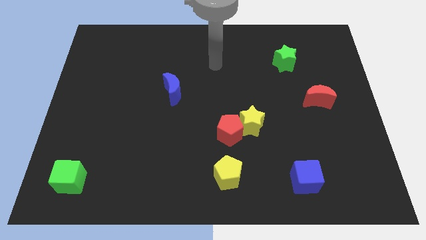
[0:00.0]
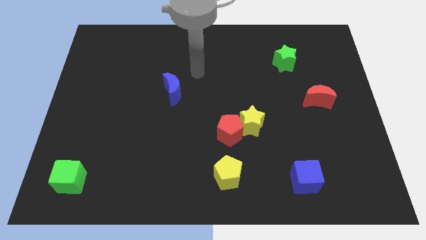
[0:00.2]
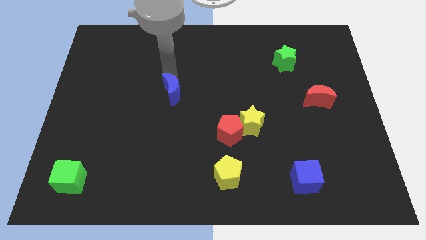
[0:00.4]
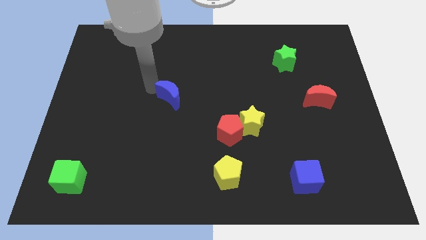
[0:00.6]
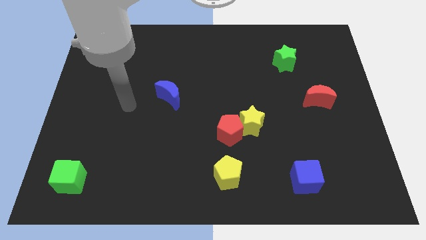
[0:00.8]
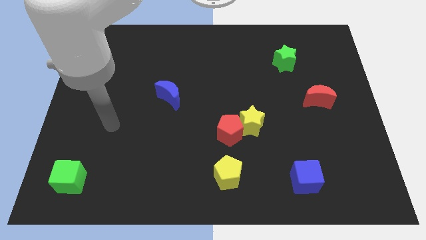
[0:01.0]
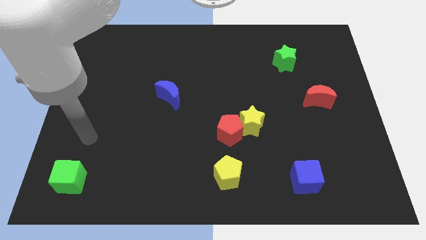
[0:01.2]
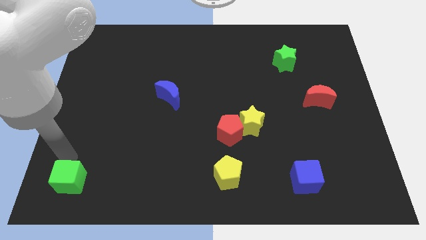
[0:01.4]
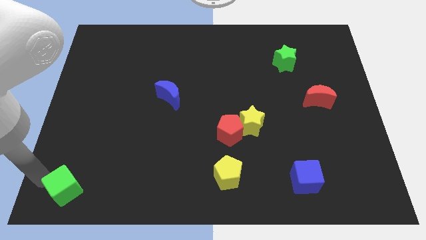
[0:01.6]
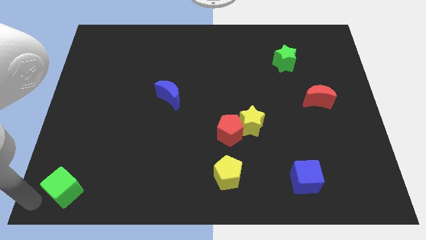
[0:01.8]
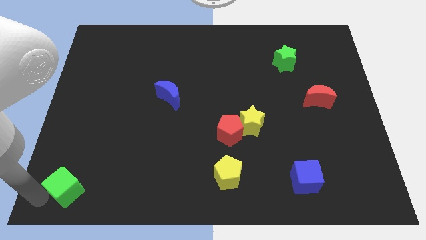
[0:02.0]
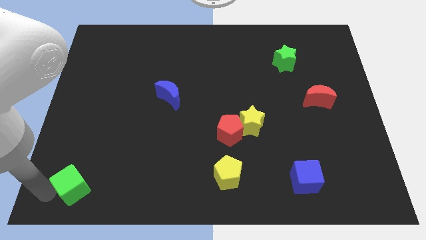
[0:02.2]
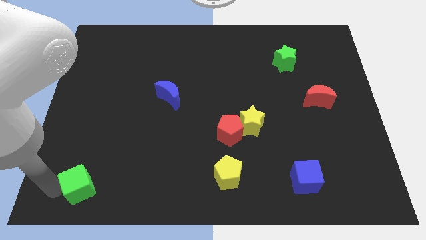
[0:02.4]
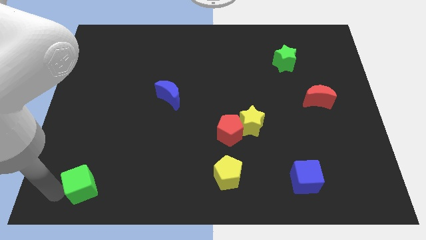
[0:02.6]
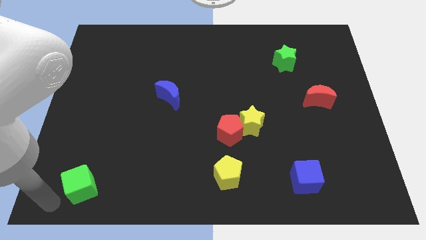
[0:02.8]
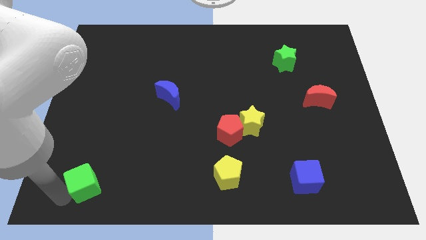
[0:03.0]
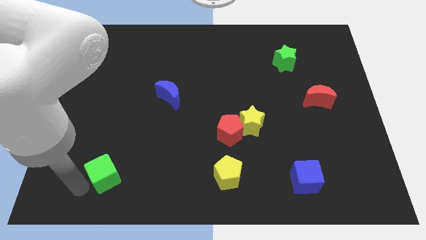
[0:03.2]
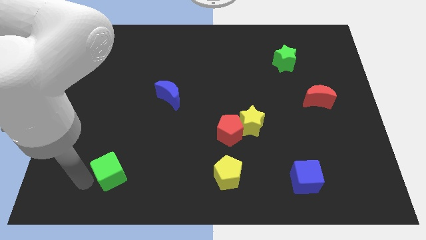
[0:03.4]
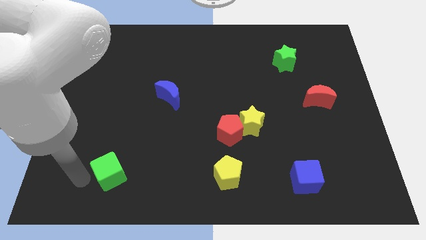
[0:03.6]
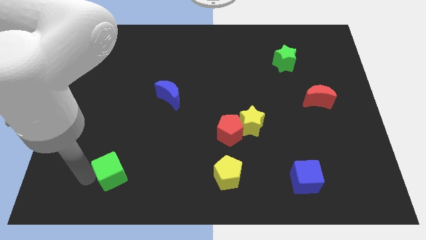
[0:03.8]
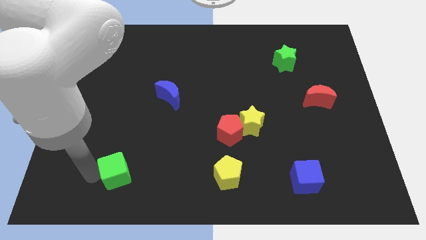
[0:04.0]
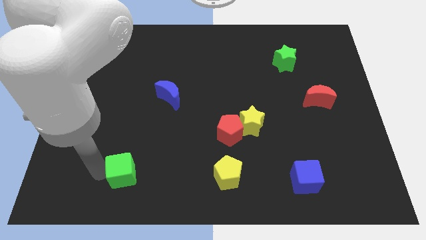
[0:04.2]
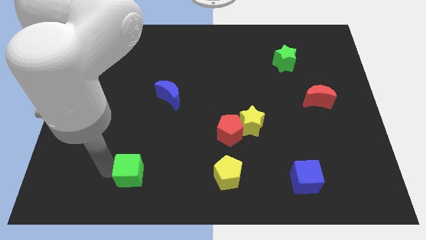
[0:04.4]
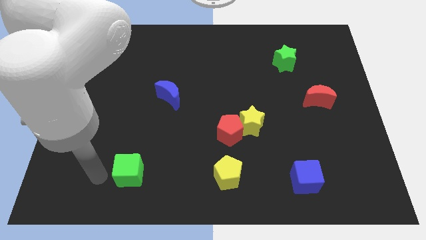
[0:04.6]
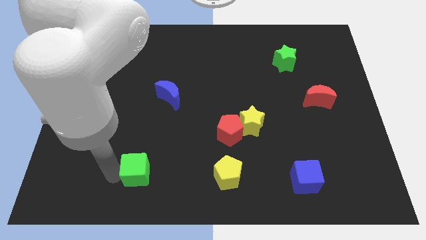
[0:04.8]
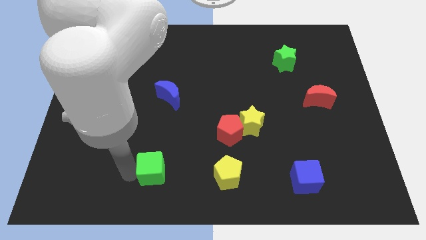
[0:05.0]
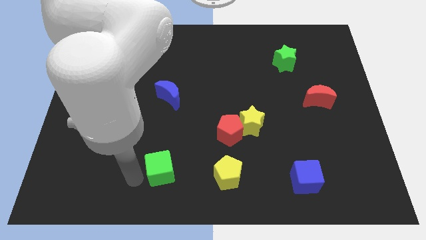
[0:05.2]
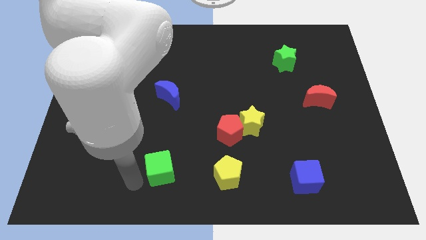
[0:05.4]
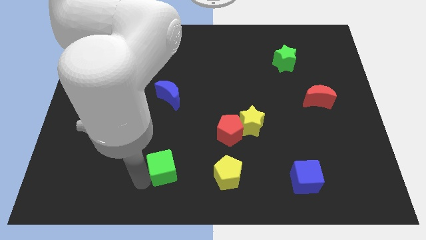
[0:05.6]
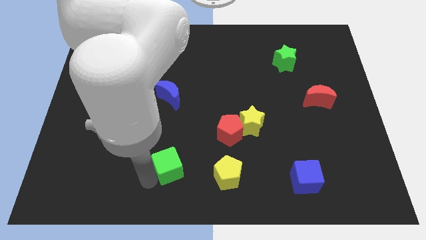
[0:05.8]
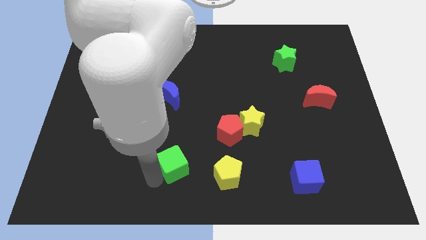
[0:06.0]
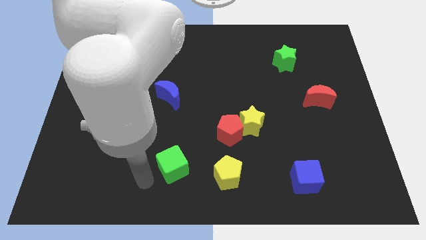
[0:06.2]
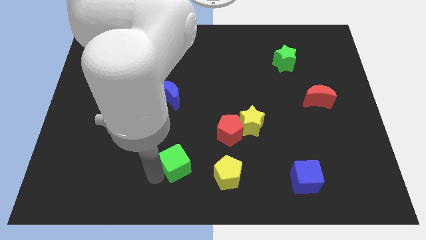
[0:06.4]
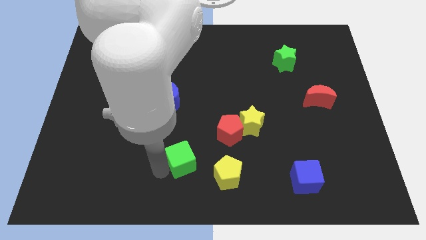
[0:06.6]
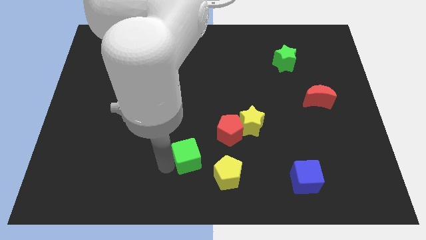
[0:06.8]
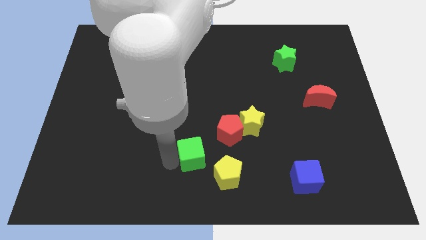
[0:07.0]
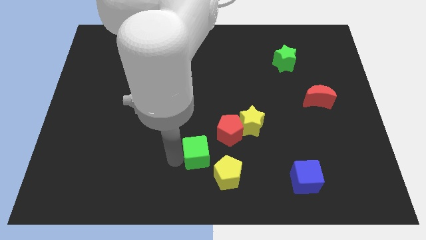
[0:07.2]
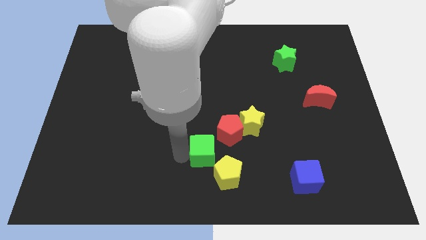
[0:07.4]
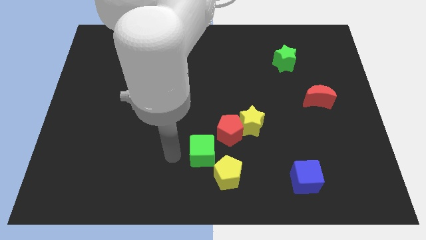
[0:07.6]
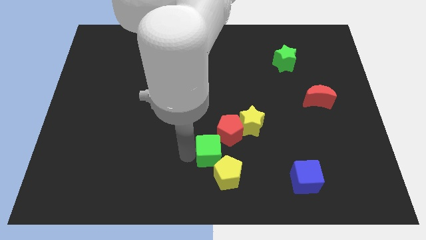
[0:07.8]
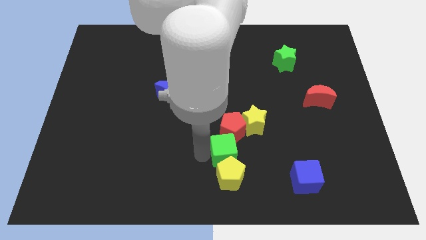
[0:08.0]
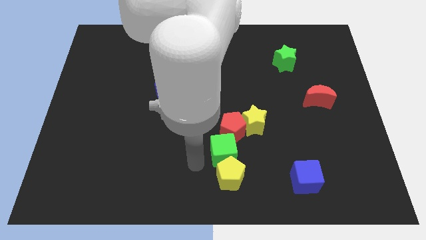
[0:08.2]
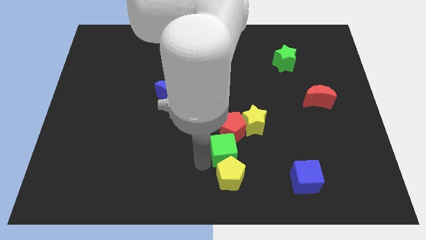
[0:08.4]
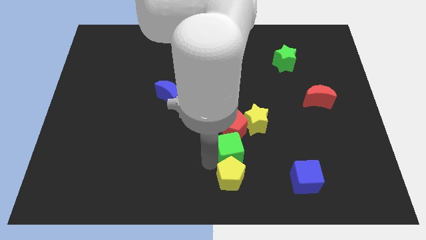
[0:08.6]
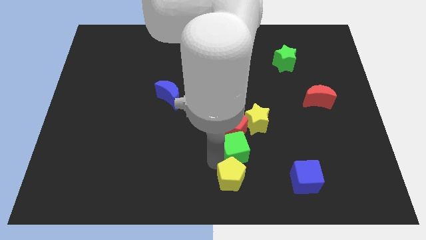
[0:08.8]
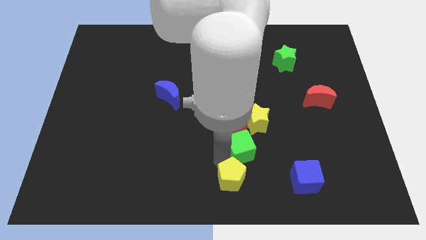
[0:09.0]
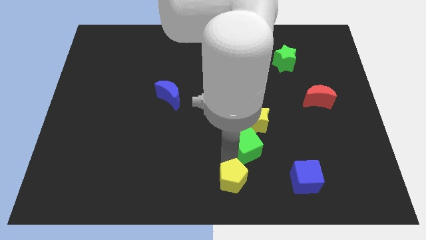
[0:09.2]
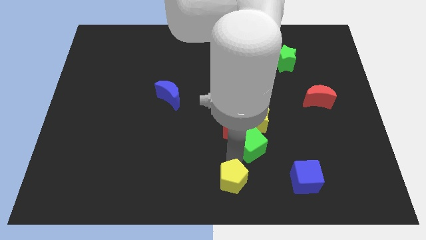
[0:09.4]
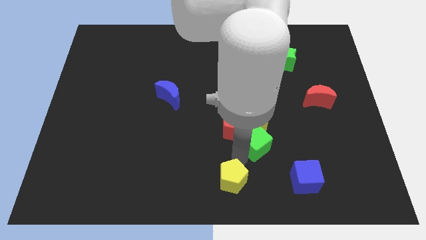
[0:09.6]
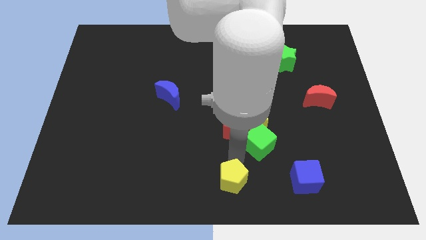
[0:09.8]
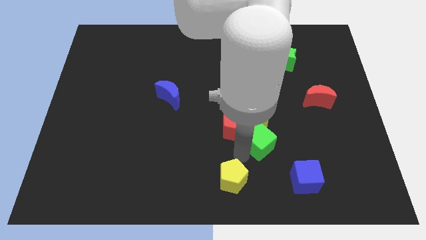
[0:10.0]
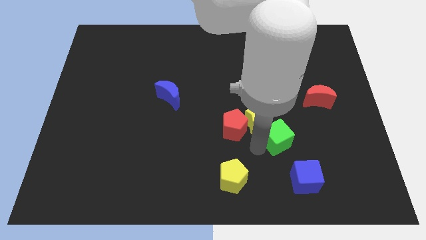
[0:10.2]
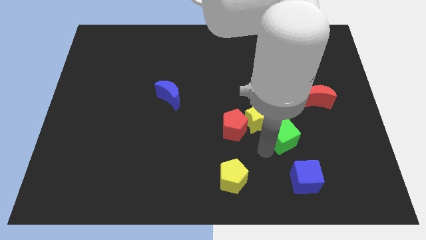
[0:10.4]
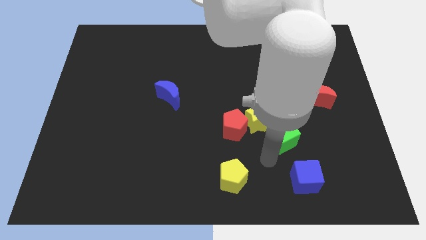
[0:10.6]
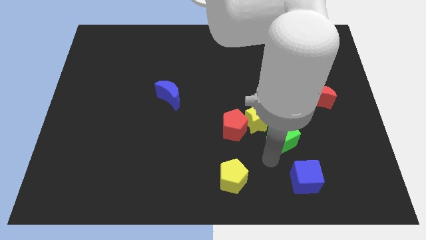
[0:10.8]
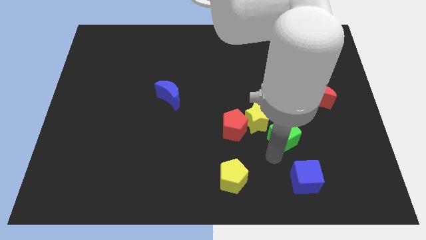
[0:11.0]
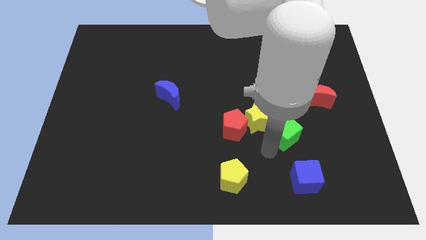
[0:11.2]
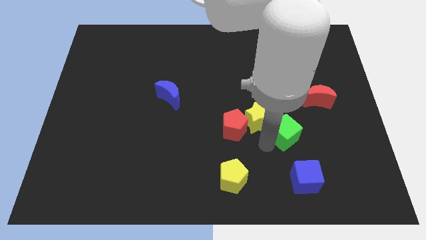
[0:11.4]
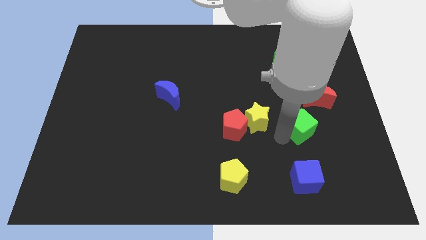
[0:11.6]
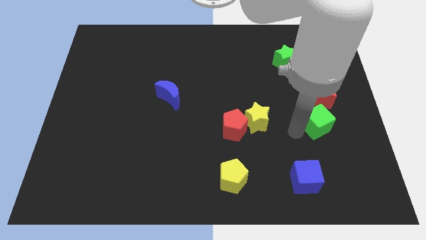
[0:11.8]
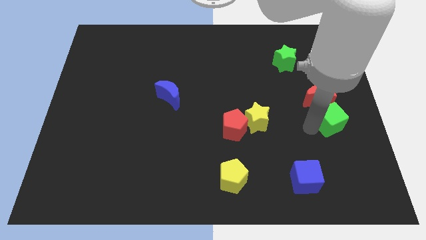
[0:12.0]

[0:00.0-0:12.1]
put the green cube to the center right

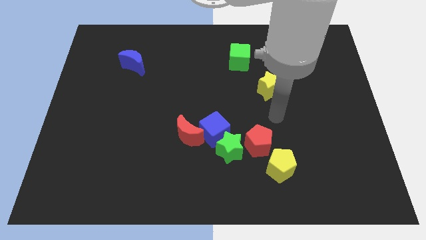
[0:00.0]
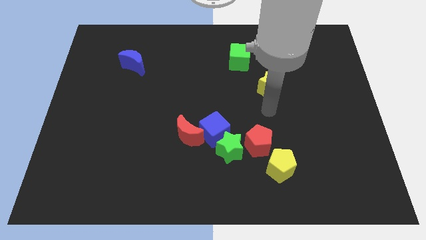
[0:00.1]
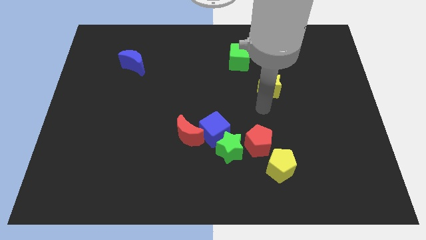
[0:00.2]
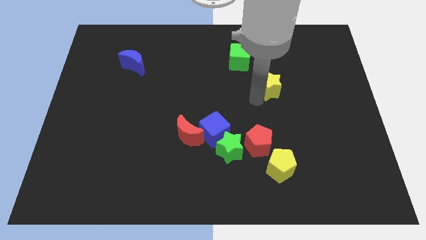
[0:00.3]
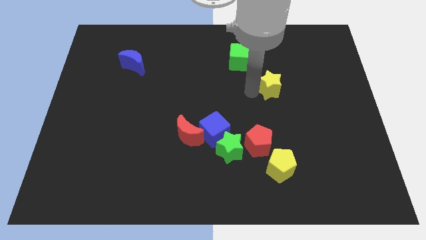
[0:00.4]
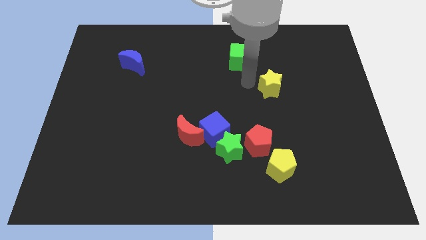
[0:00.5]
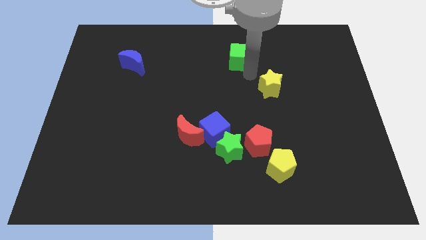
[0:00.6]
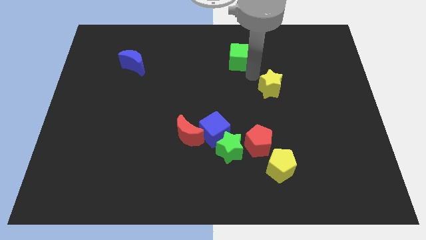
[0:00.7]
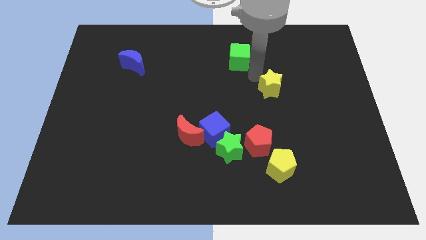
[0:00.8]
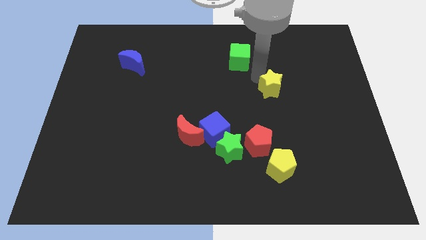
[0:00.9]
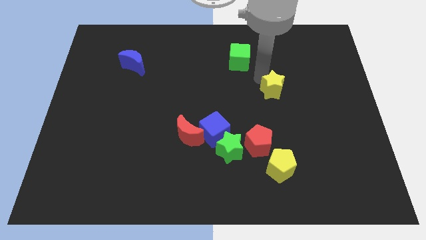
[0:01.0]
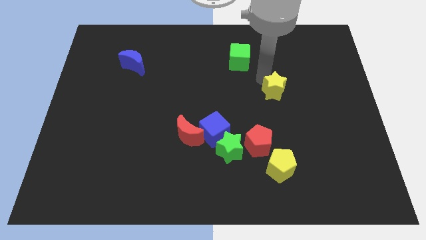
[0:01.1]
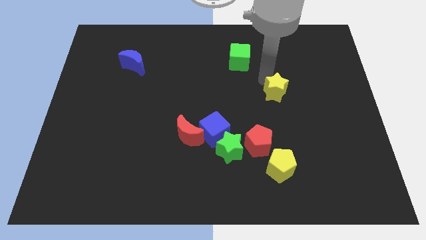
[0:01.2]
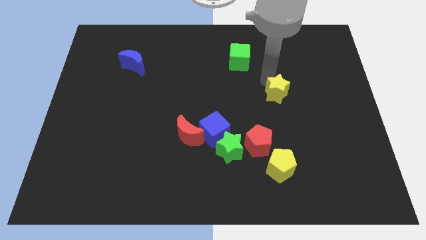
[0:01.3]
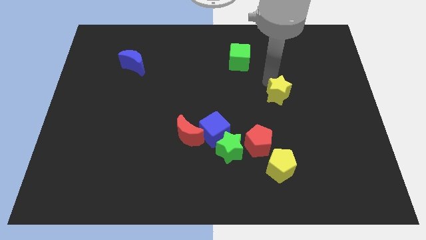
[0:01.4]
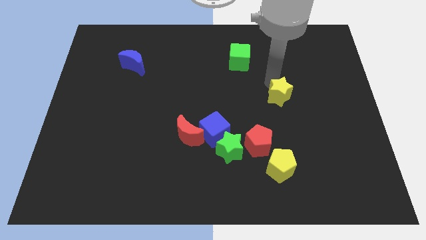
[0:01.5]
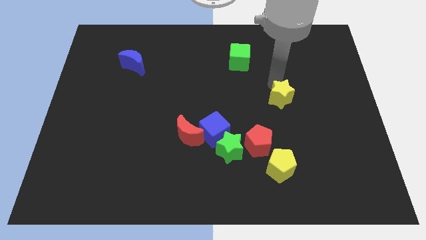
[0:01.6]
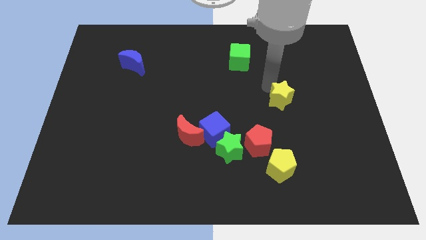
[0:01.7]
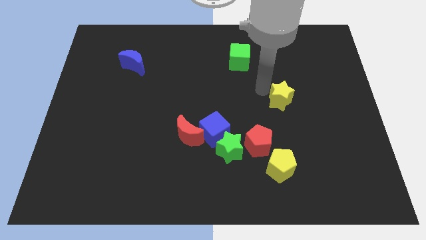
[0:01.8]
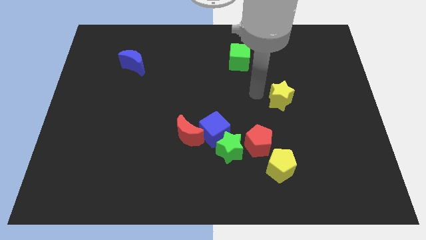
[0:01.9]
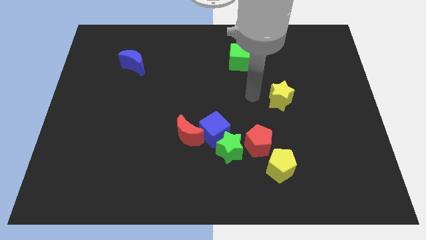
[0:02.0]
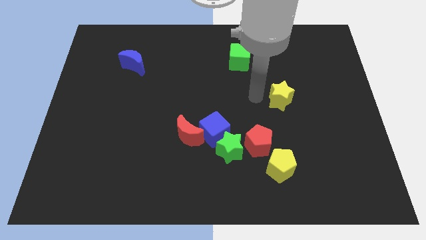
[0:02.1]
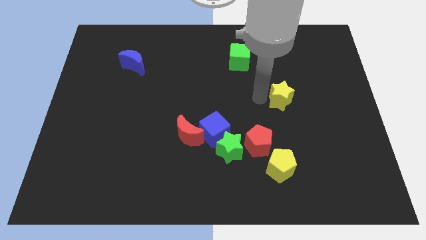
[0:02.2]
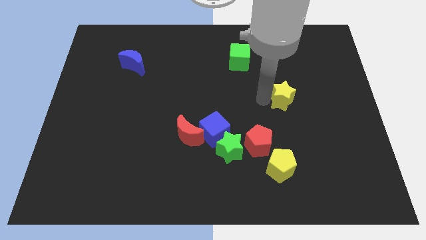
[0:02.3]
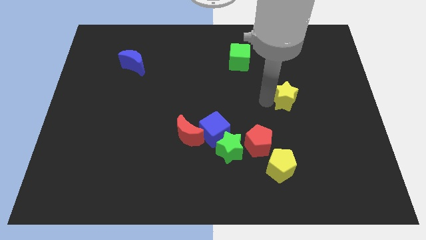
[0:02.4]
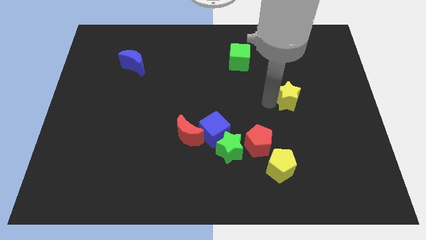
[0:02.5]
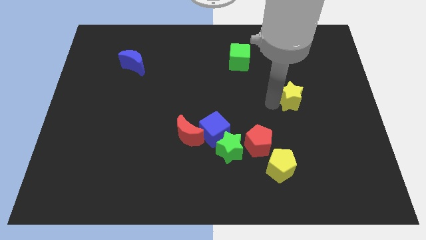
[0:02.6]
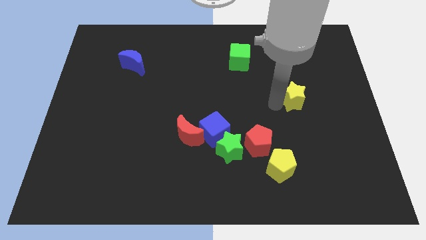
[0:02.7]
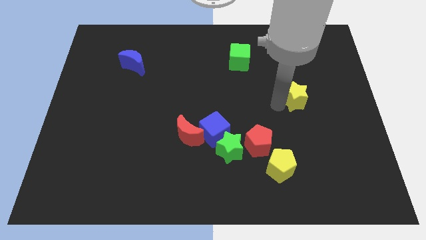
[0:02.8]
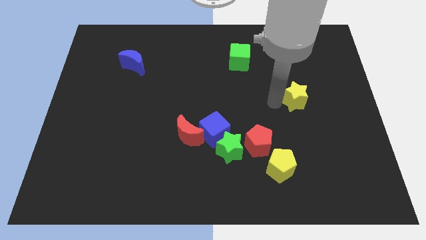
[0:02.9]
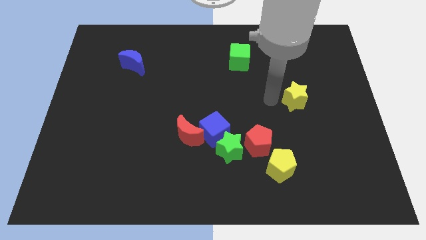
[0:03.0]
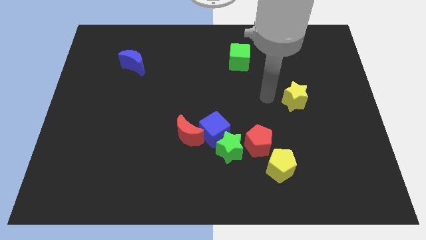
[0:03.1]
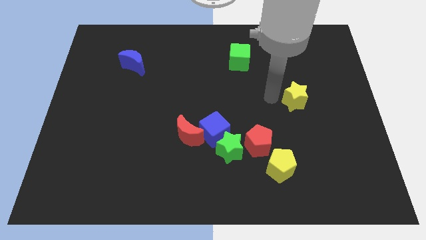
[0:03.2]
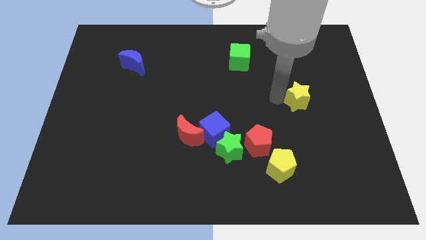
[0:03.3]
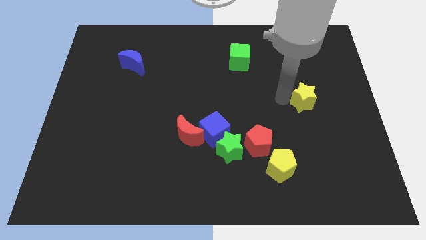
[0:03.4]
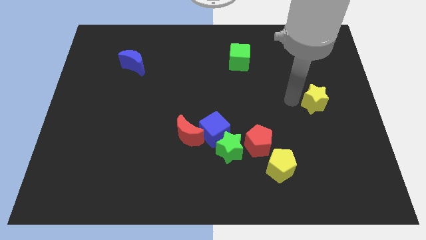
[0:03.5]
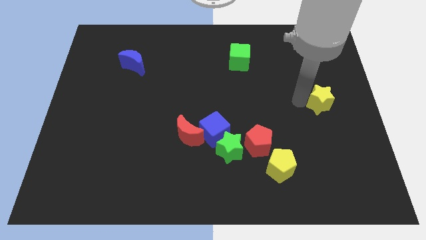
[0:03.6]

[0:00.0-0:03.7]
slide the yellow star to the right side
